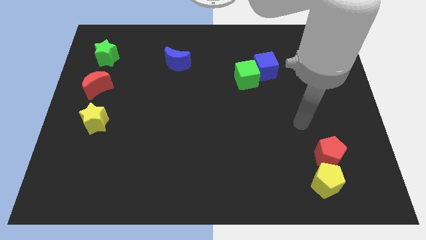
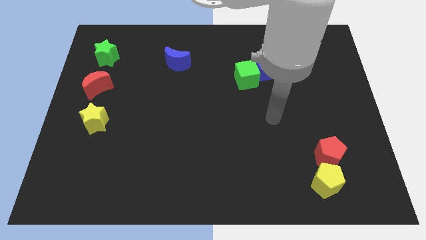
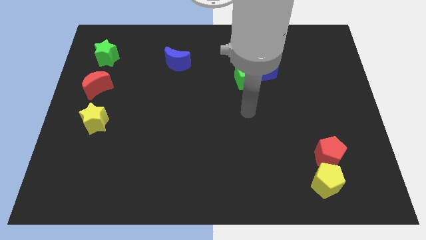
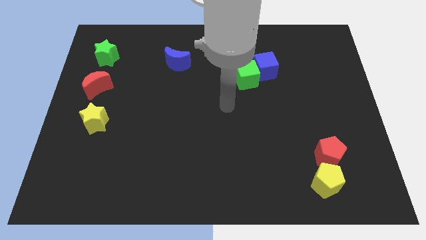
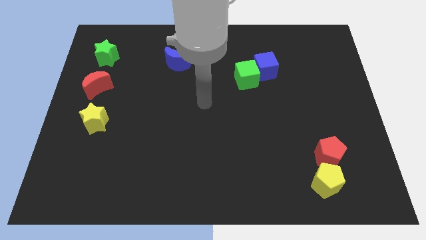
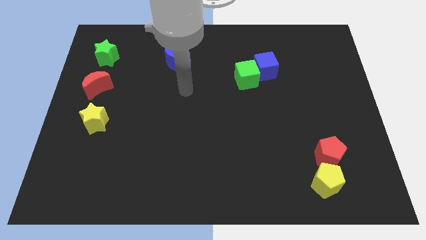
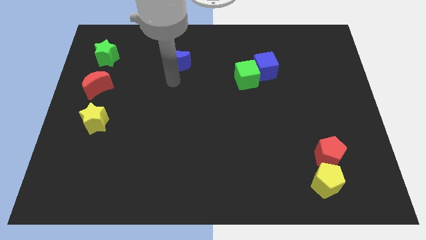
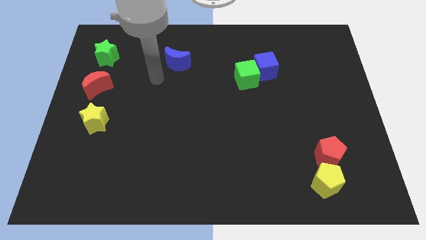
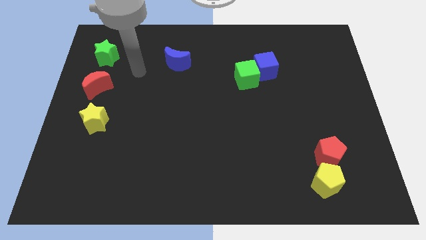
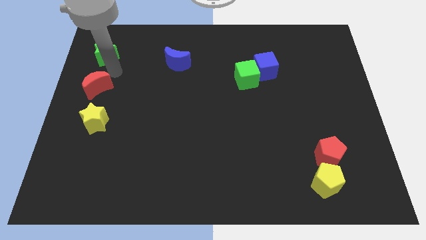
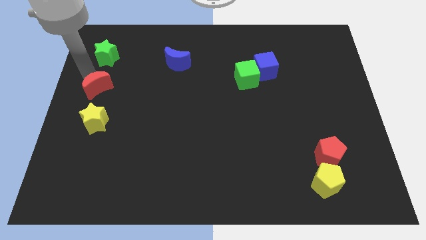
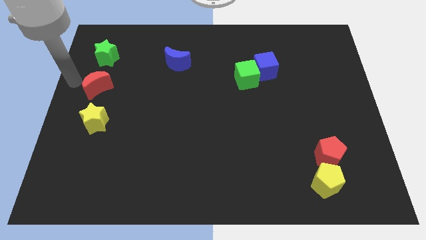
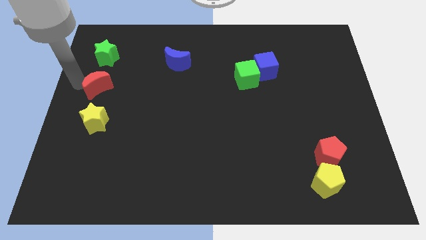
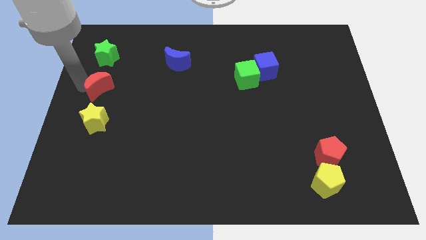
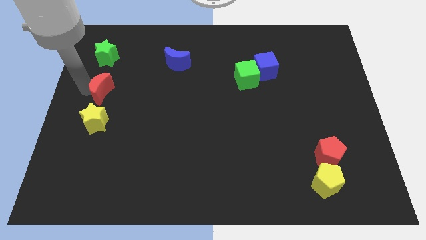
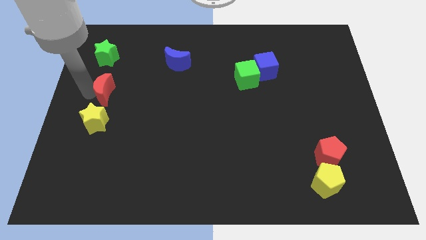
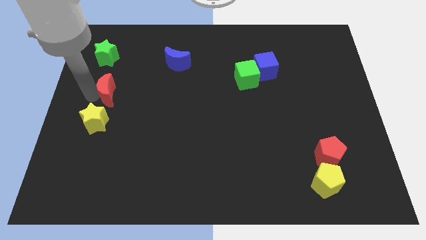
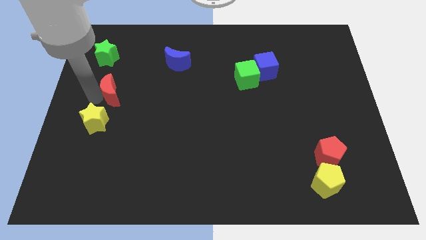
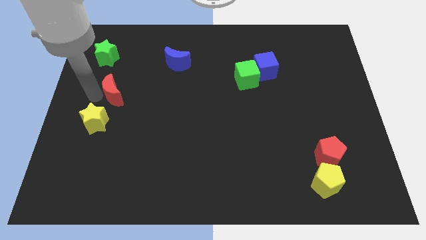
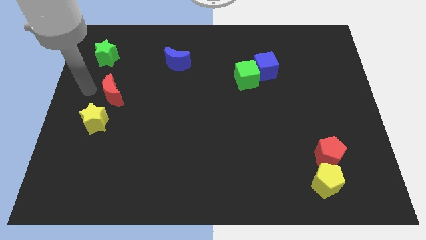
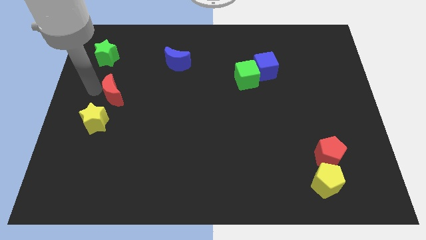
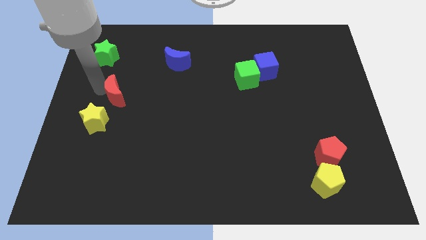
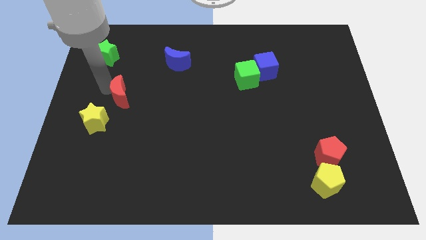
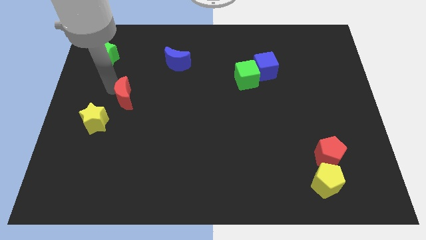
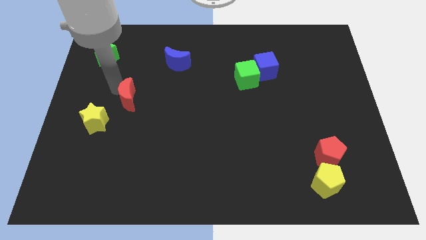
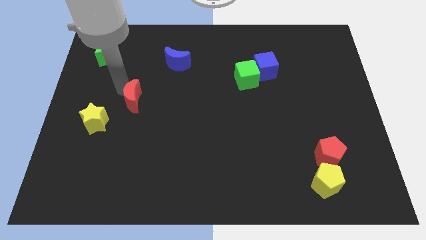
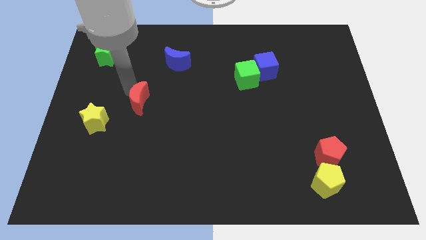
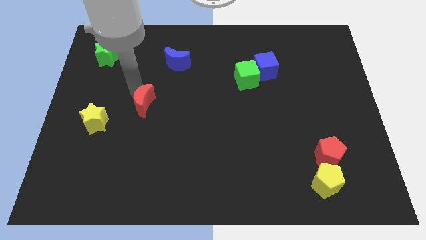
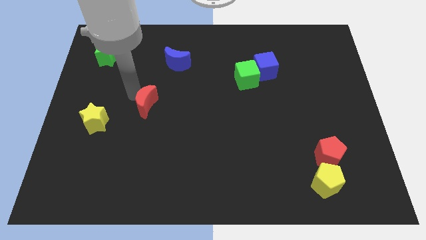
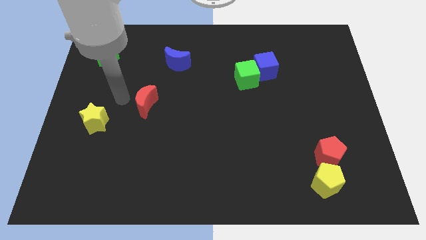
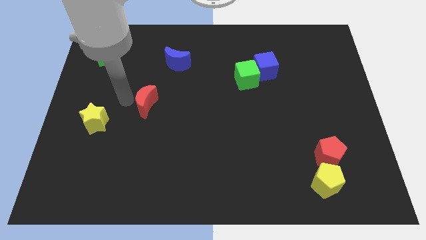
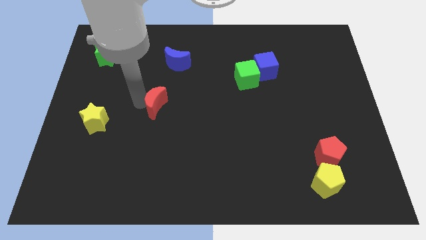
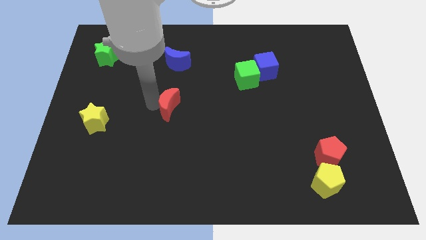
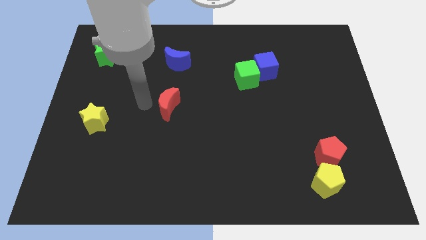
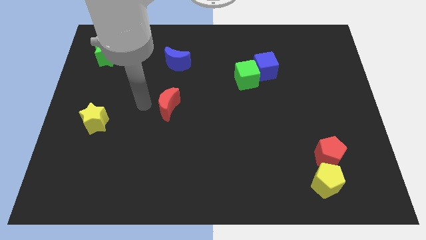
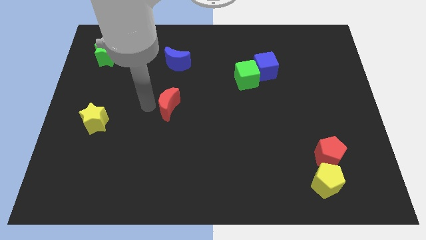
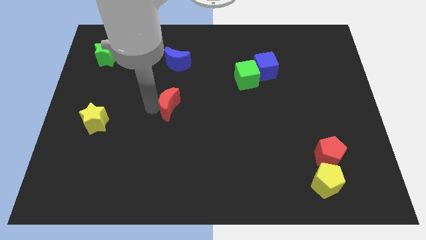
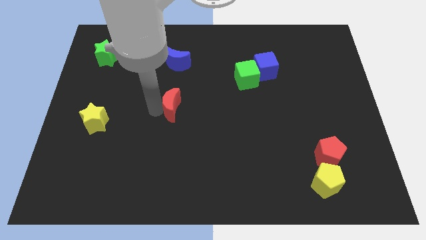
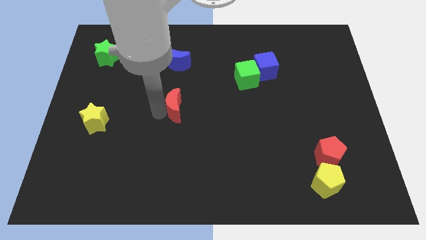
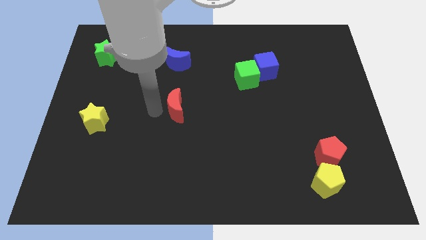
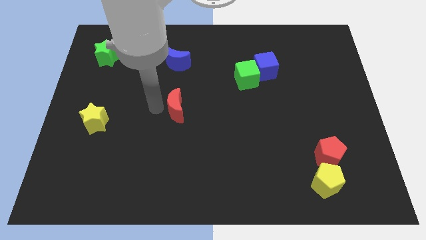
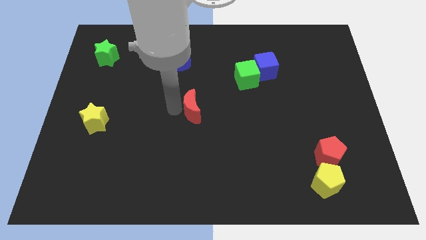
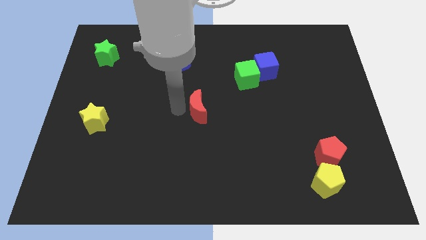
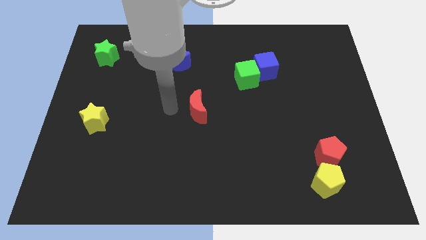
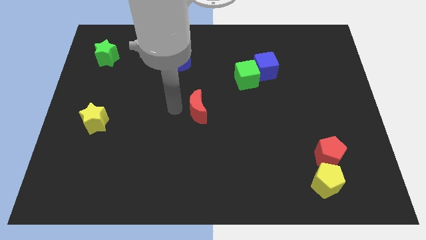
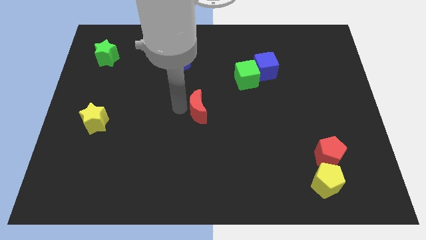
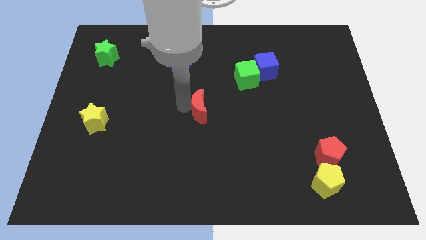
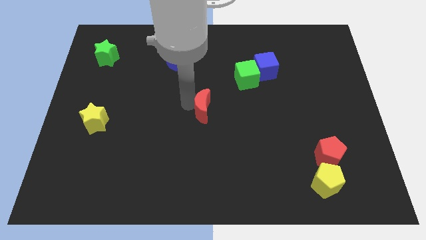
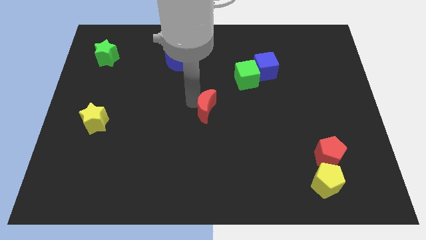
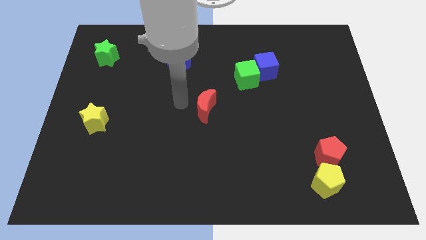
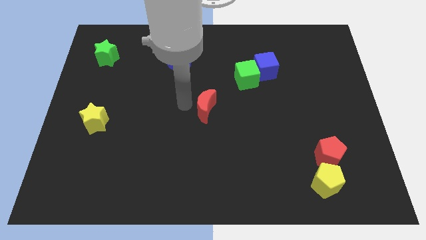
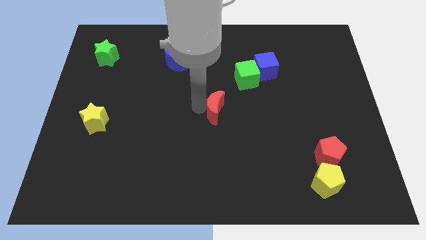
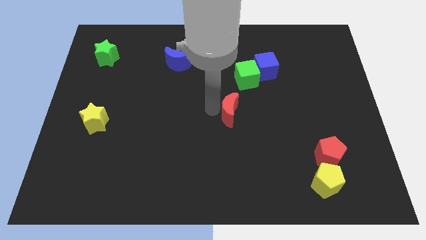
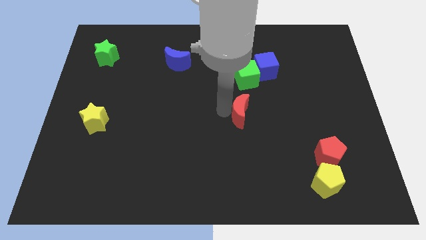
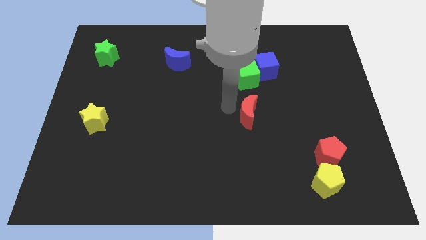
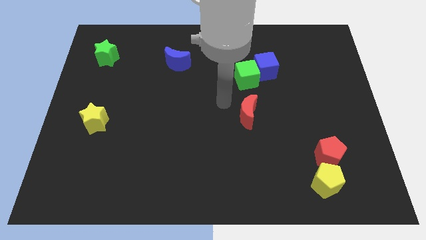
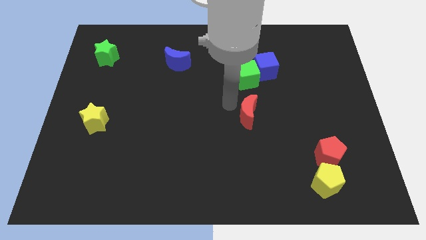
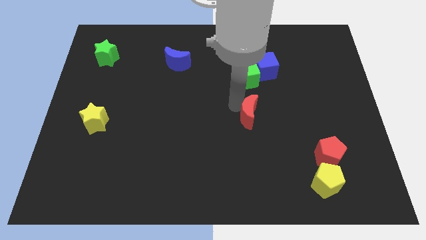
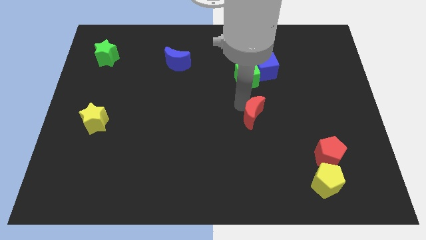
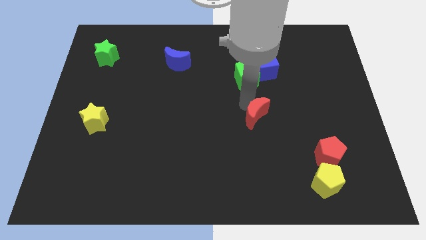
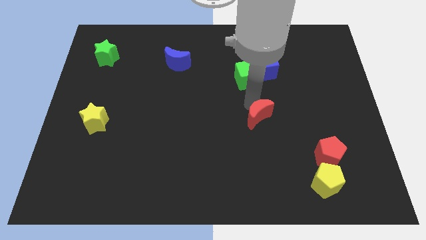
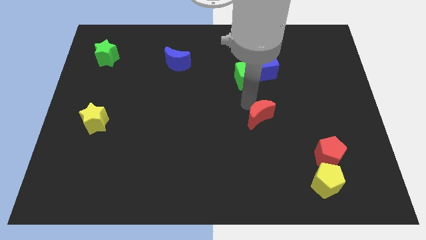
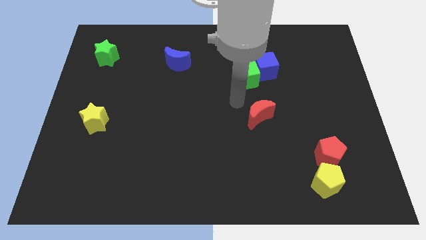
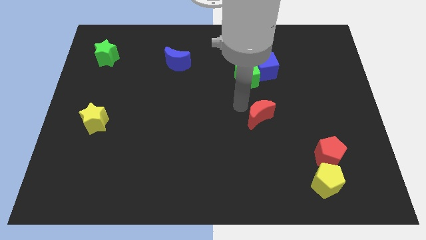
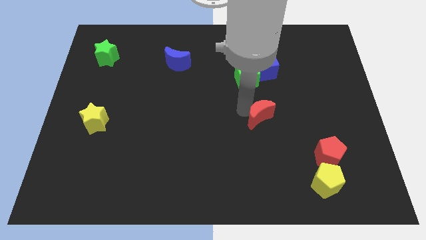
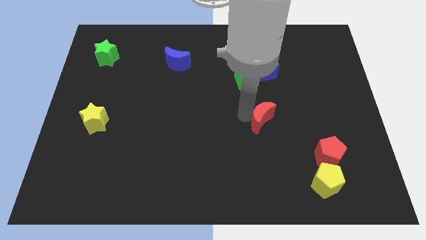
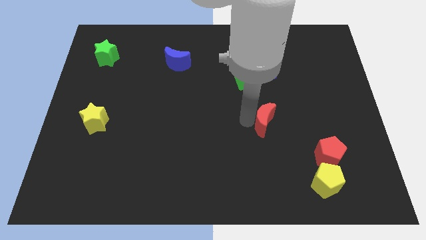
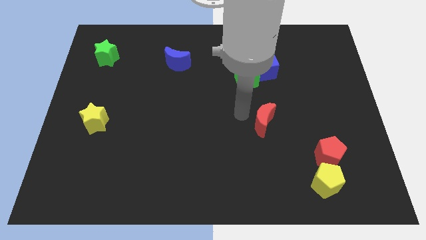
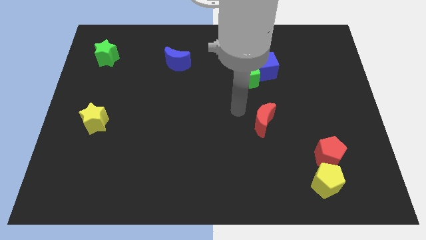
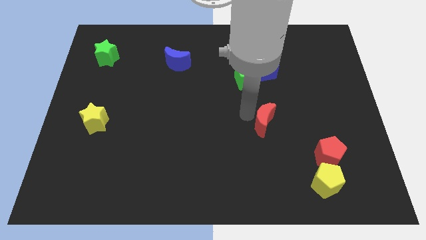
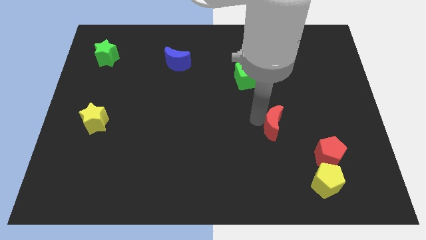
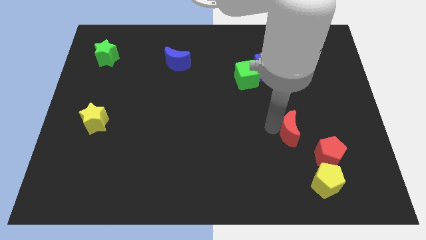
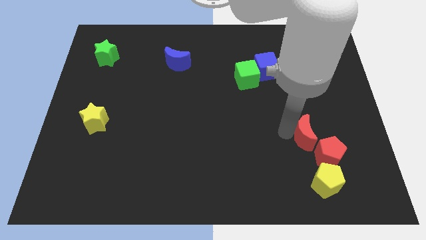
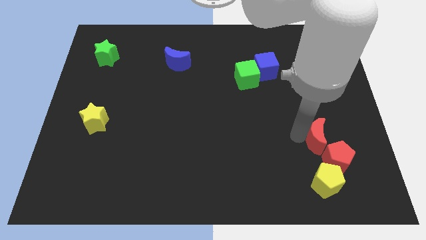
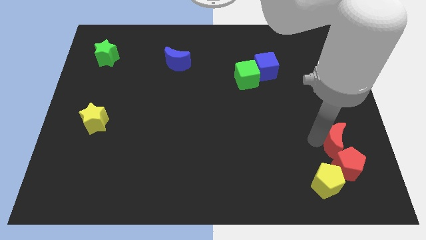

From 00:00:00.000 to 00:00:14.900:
push the red moon diagonally up and to the right of the yellow pentagon
